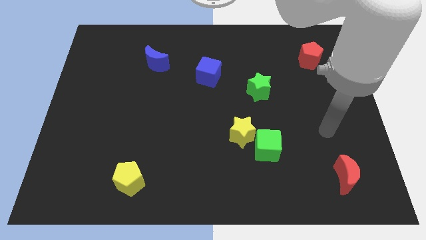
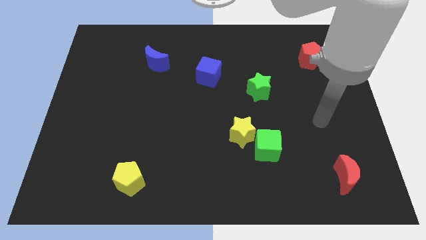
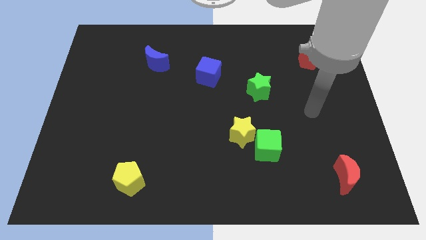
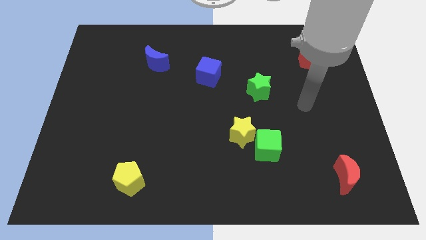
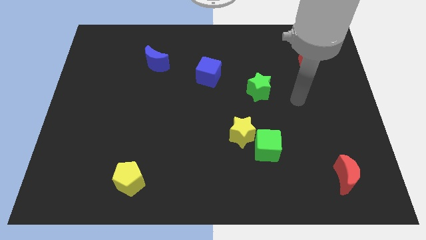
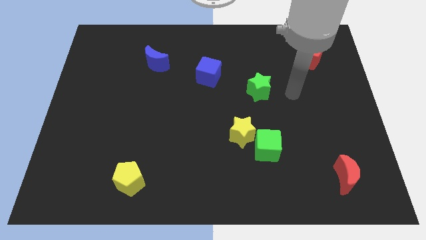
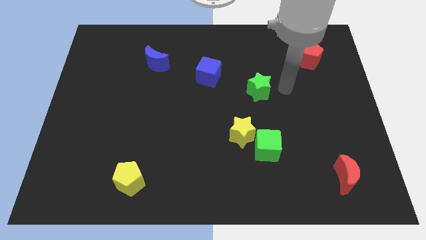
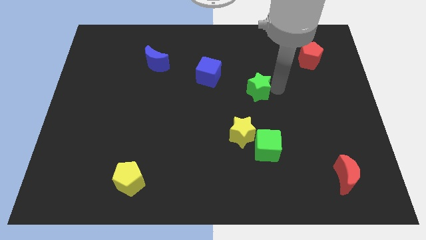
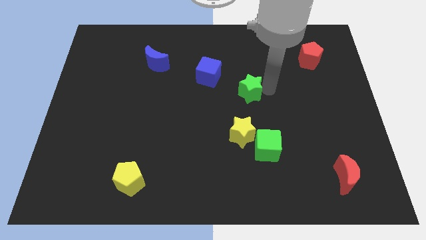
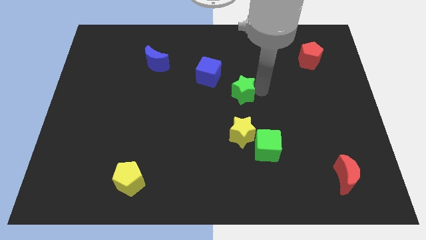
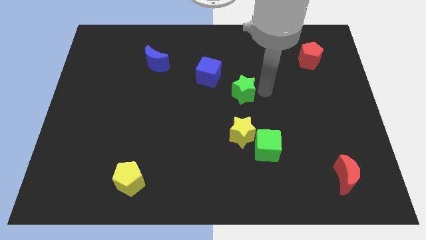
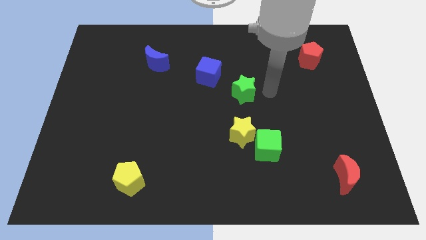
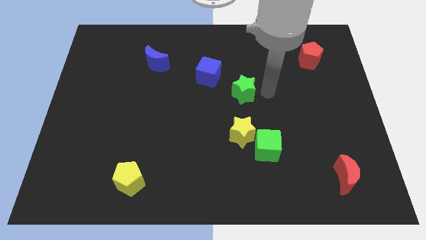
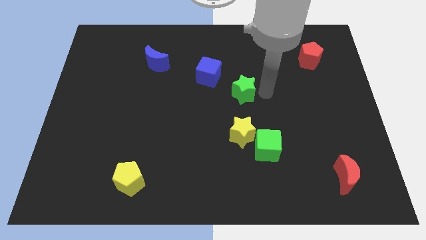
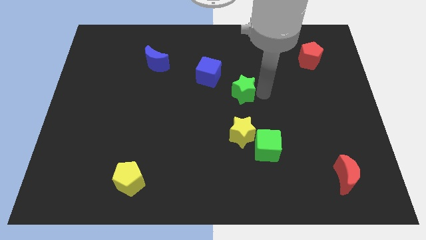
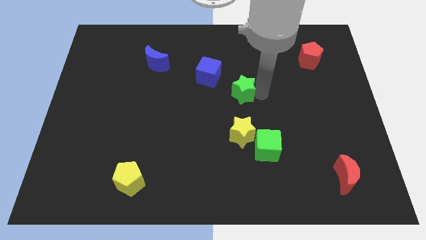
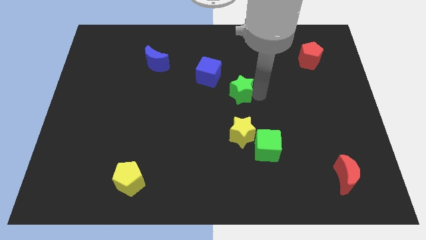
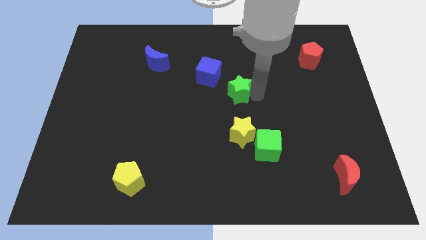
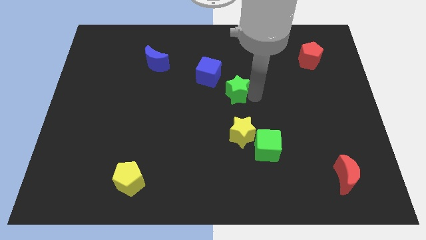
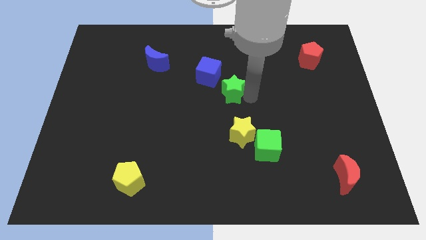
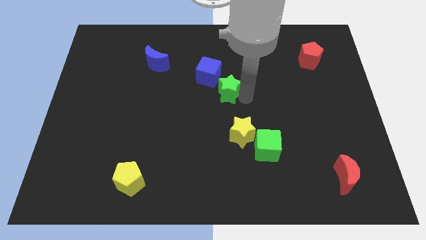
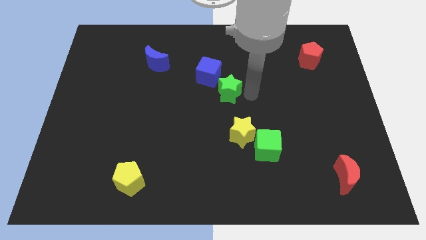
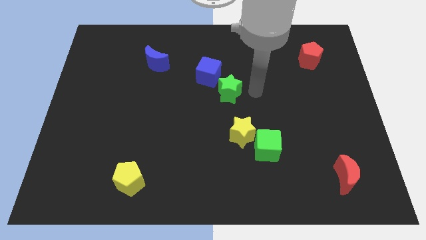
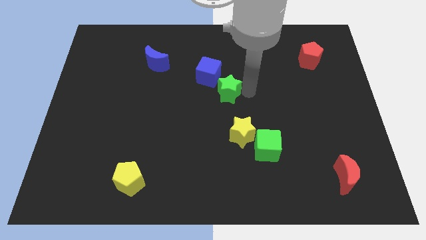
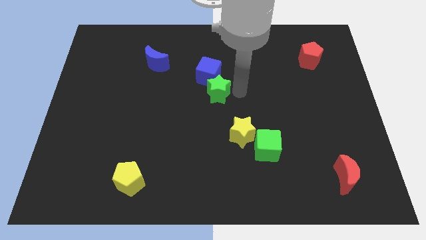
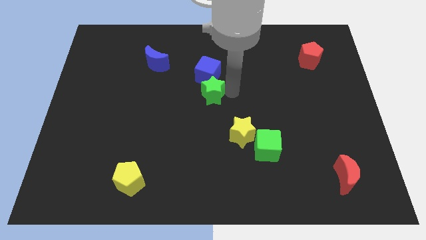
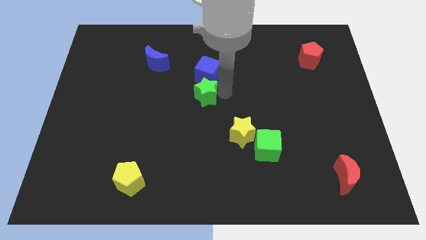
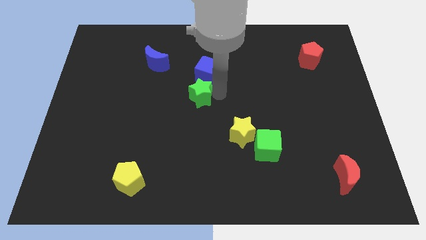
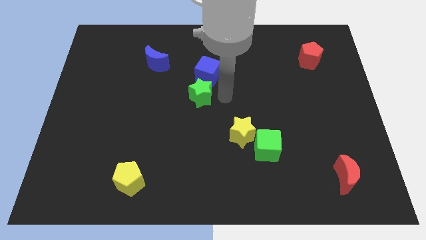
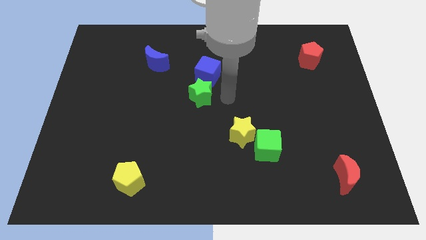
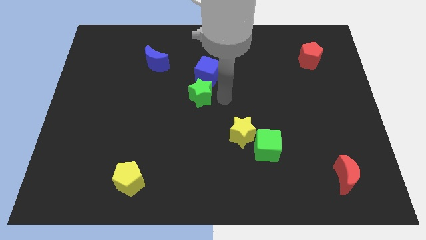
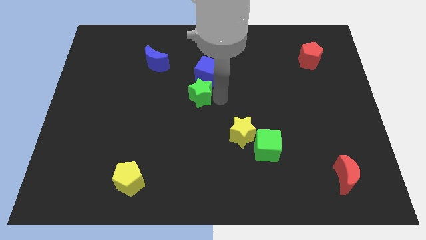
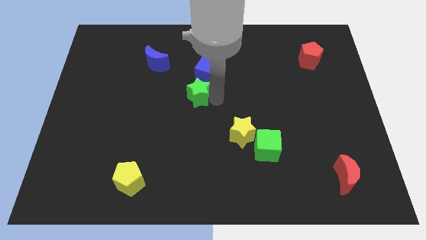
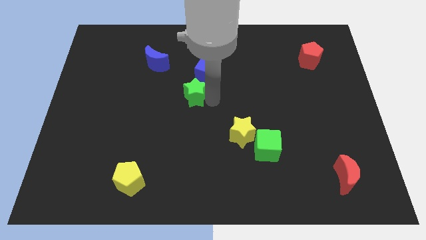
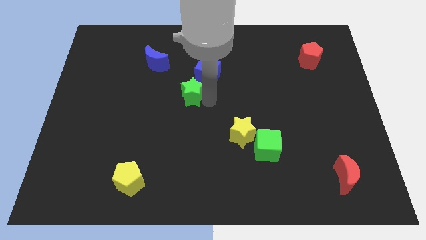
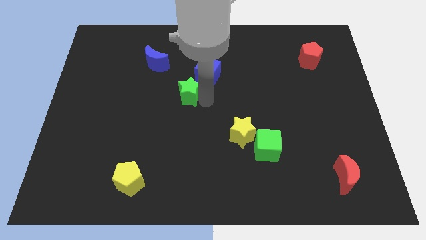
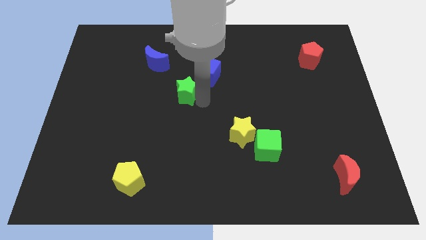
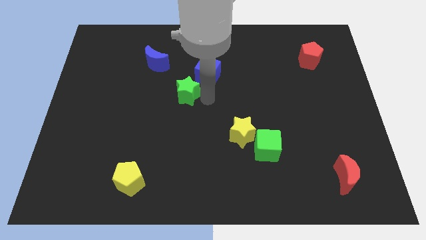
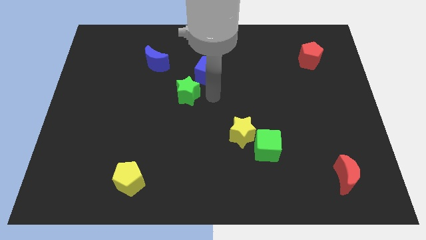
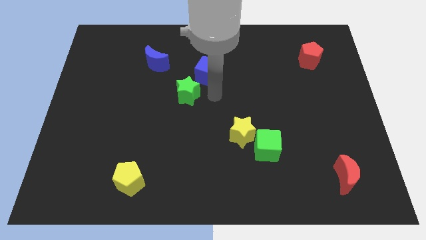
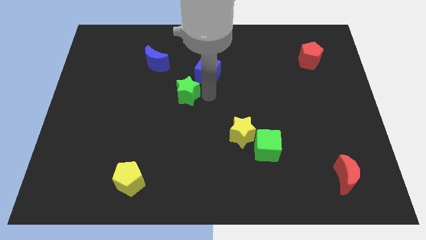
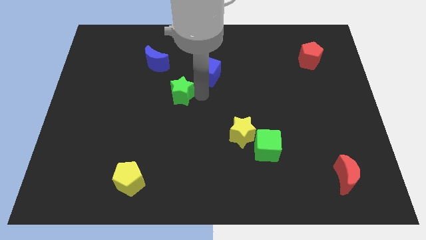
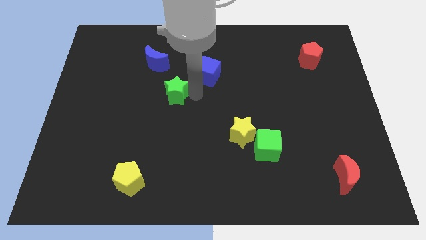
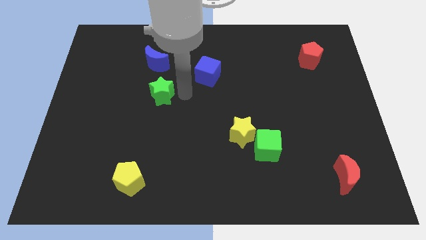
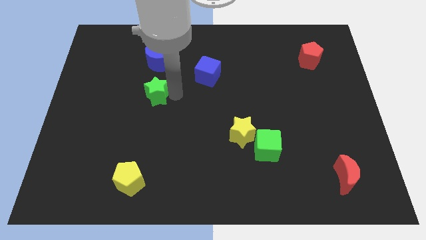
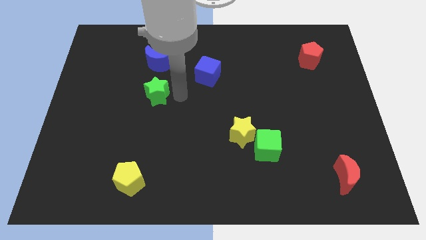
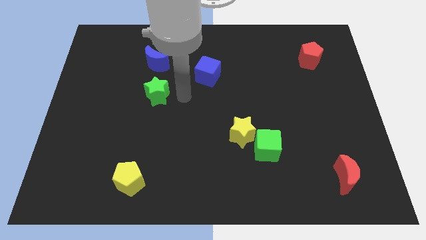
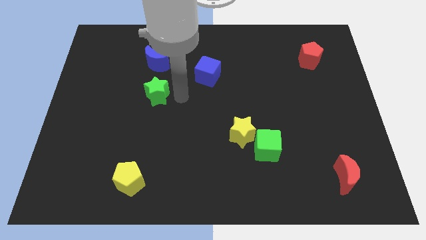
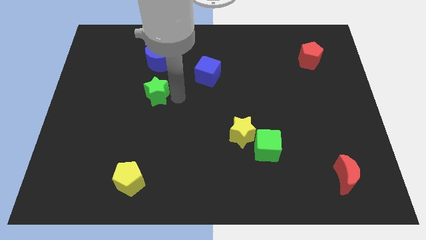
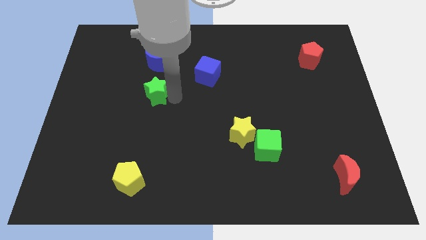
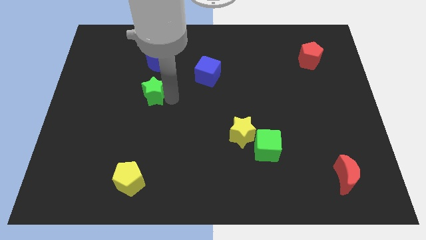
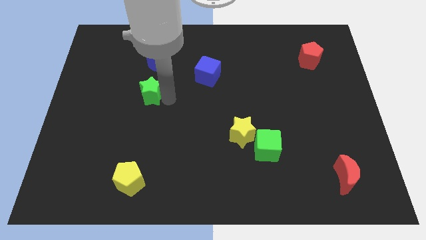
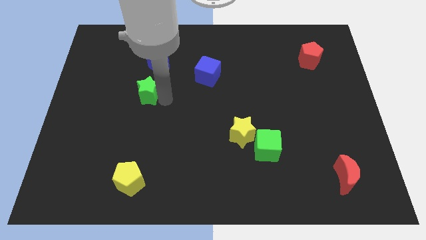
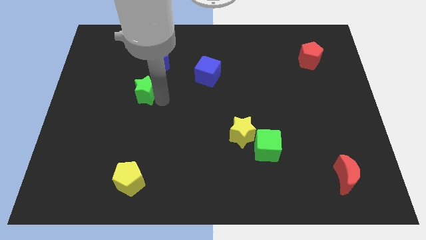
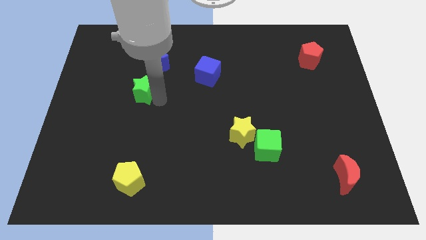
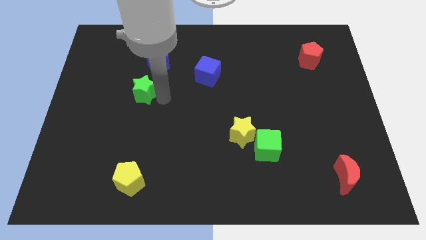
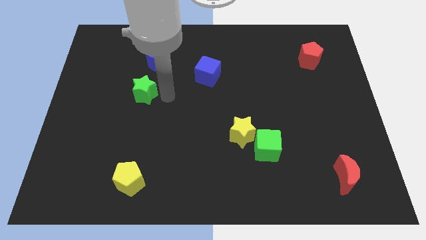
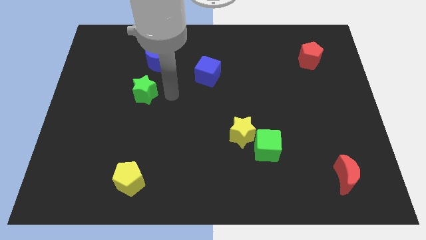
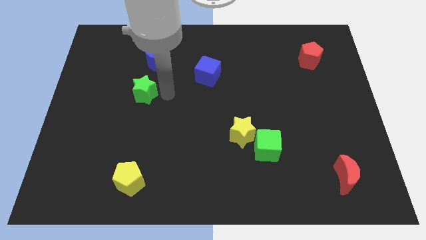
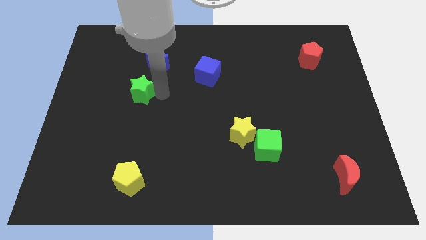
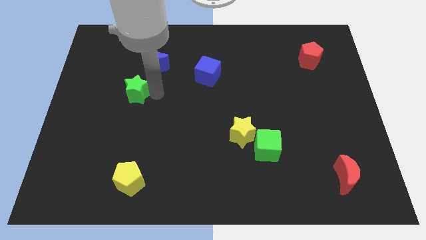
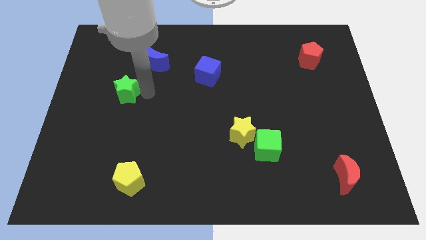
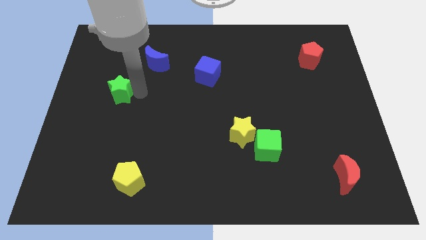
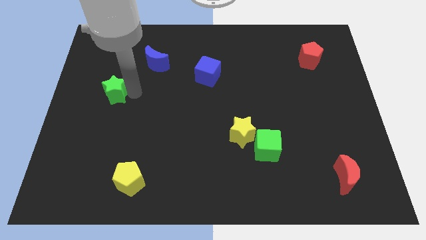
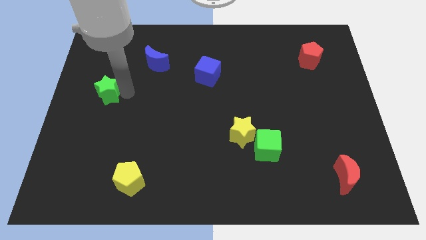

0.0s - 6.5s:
put the green star to the center left
